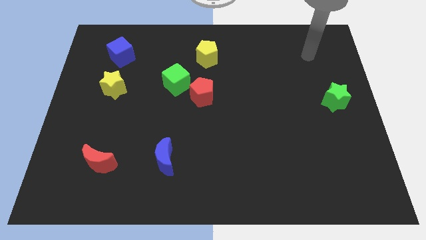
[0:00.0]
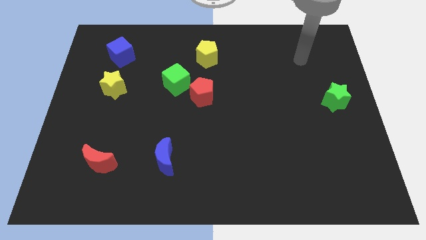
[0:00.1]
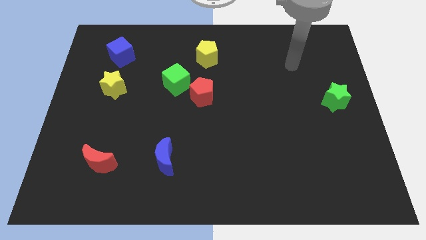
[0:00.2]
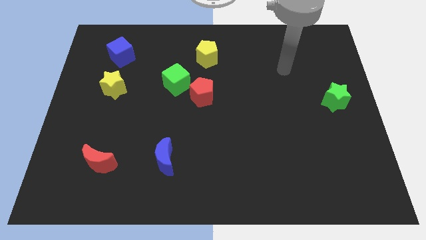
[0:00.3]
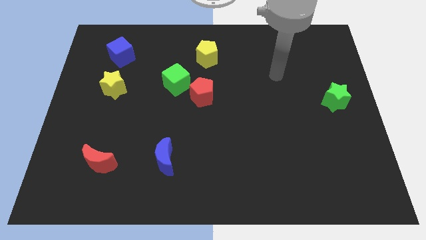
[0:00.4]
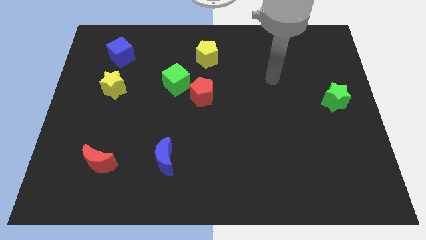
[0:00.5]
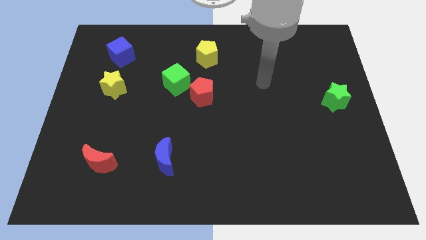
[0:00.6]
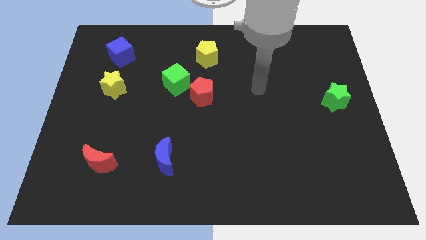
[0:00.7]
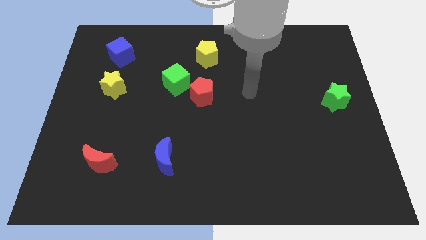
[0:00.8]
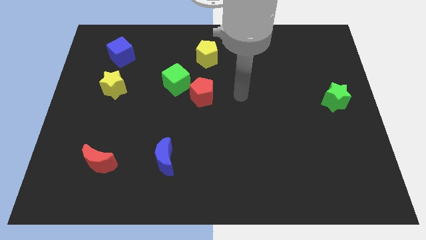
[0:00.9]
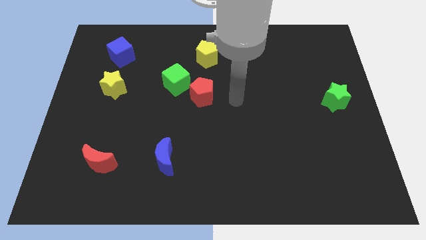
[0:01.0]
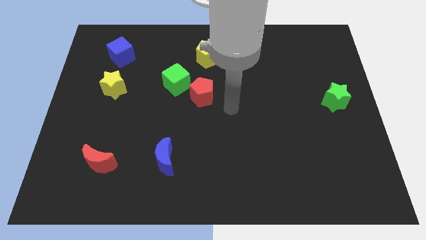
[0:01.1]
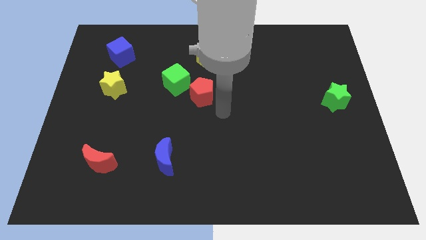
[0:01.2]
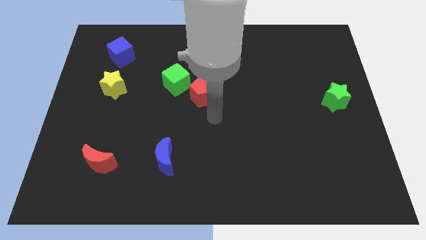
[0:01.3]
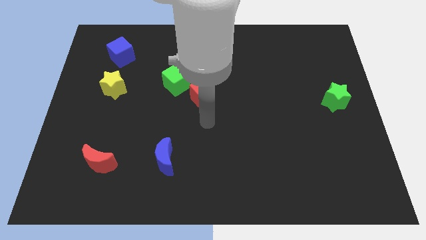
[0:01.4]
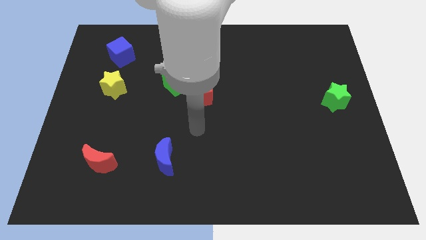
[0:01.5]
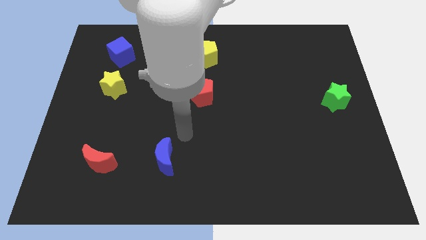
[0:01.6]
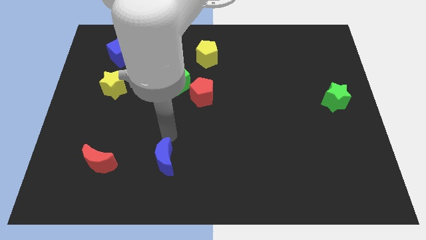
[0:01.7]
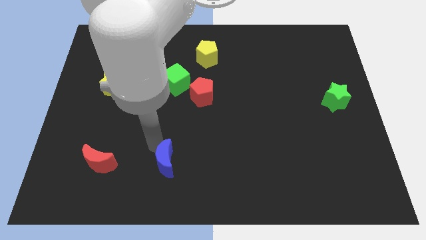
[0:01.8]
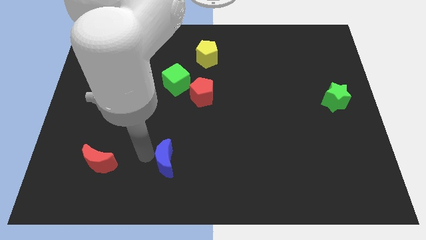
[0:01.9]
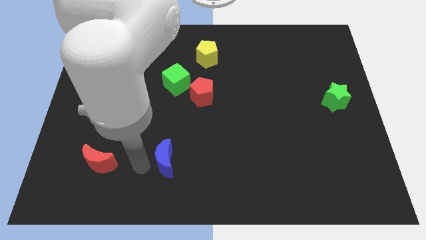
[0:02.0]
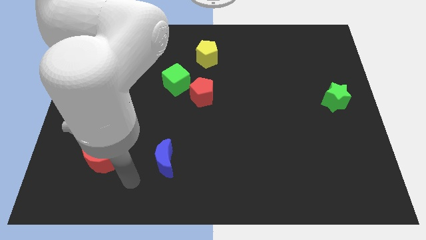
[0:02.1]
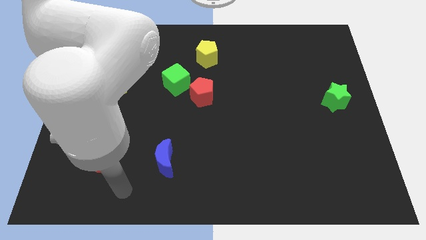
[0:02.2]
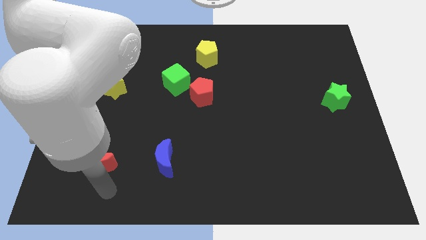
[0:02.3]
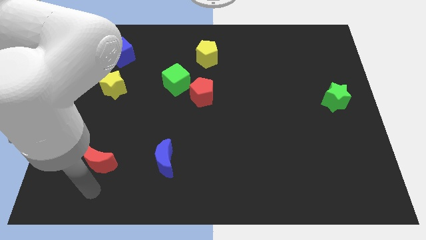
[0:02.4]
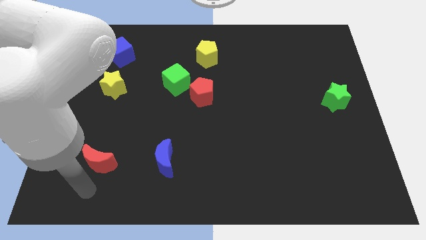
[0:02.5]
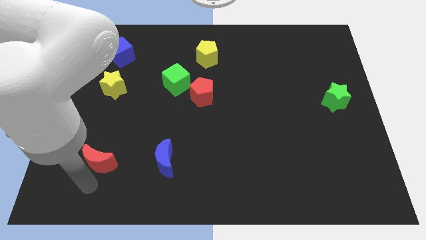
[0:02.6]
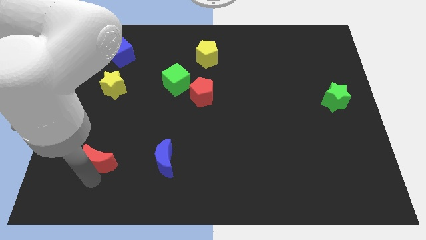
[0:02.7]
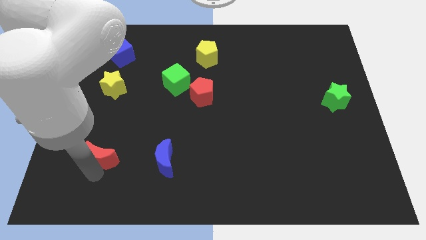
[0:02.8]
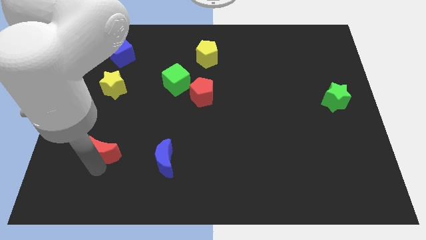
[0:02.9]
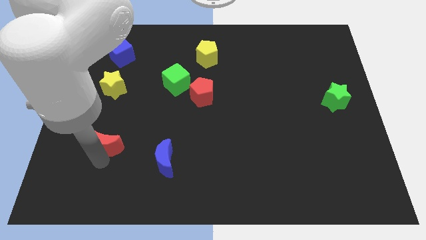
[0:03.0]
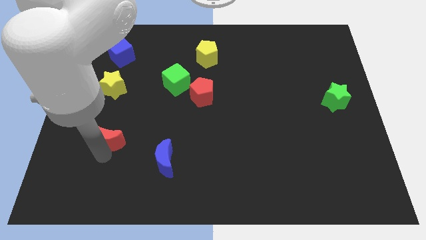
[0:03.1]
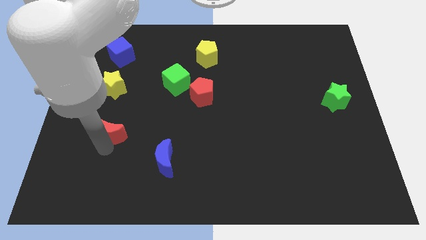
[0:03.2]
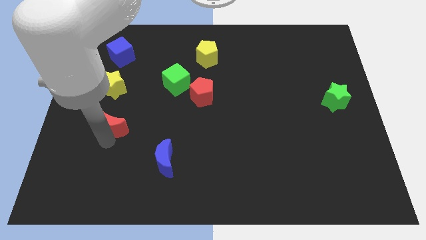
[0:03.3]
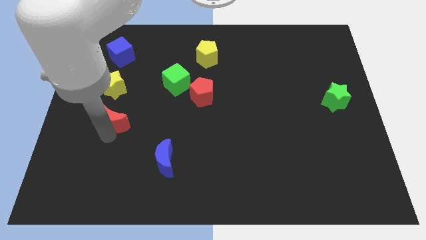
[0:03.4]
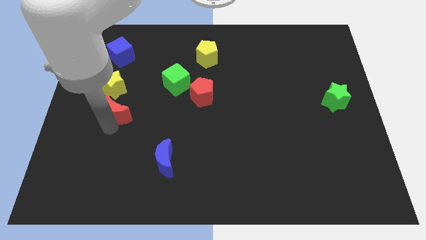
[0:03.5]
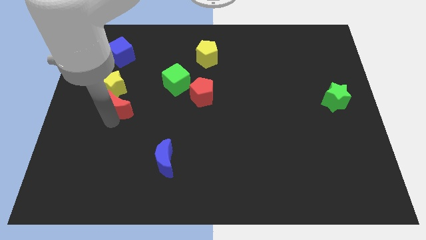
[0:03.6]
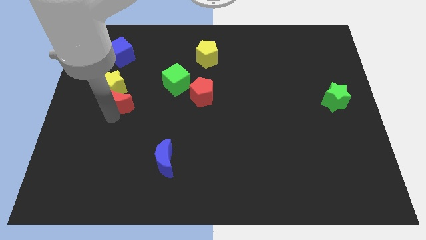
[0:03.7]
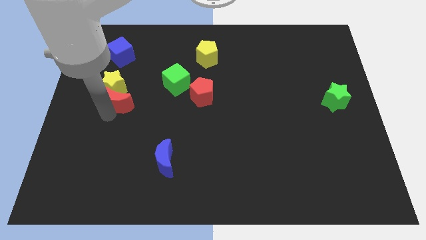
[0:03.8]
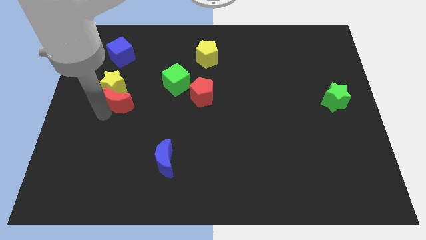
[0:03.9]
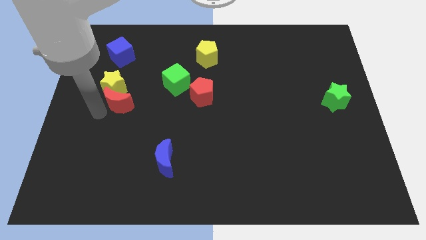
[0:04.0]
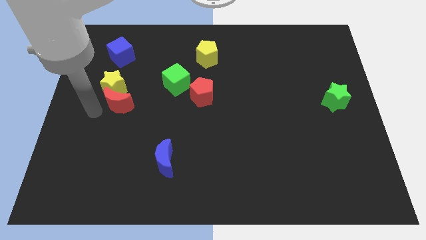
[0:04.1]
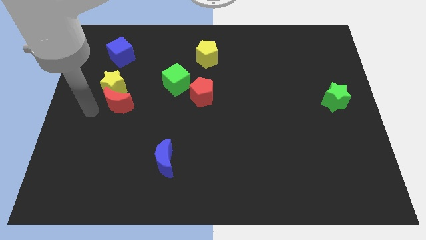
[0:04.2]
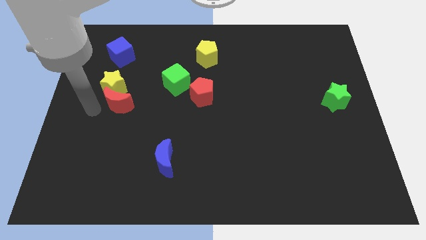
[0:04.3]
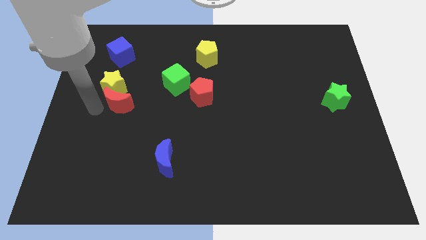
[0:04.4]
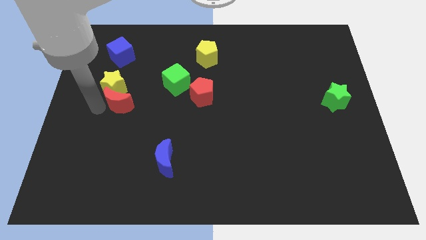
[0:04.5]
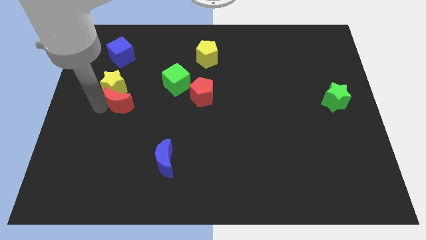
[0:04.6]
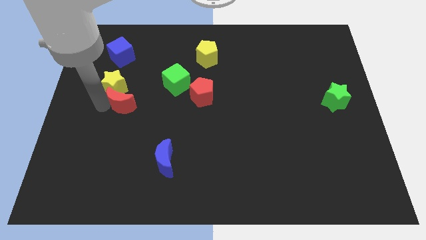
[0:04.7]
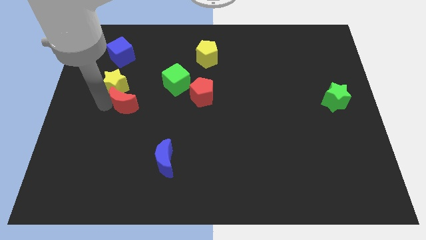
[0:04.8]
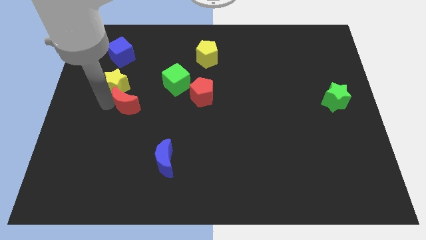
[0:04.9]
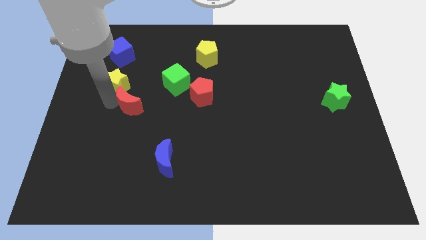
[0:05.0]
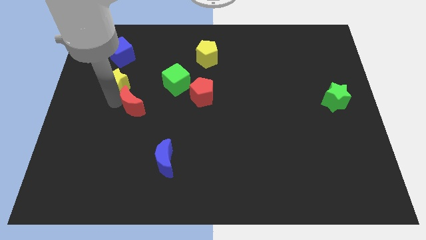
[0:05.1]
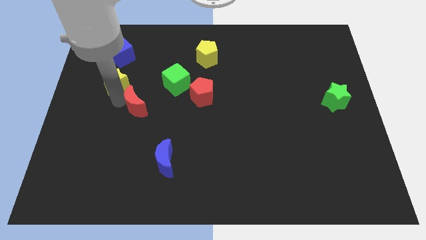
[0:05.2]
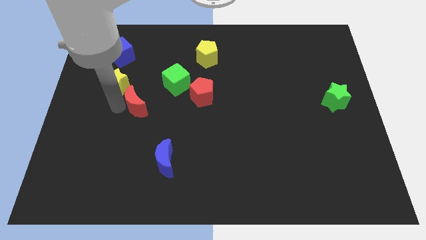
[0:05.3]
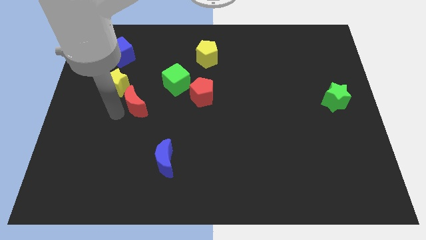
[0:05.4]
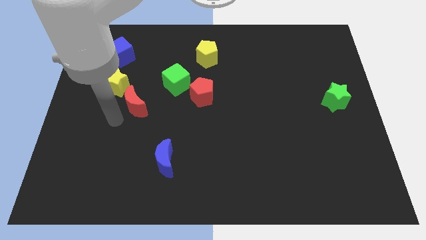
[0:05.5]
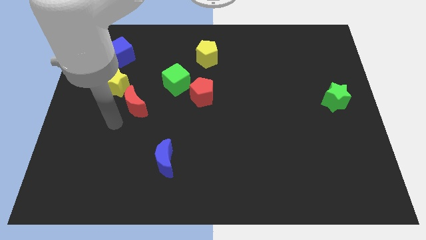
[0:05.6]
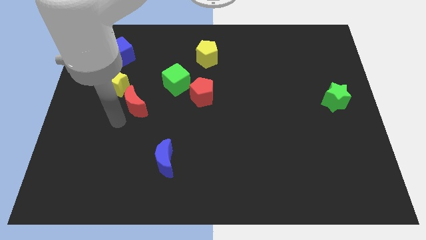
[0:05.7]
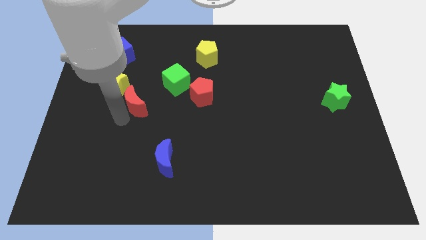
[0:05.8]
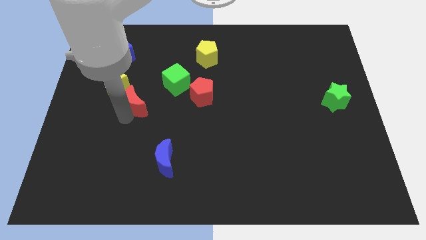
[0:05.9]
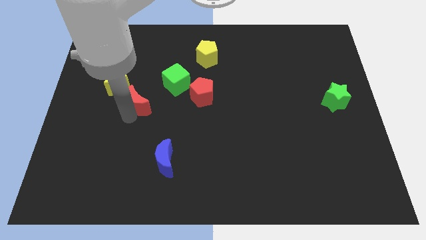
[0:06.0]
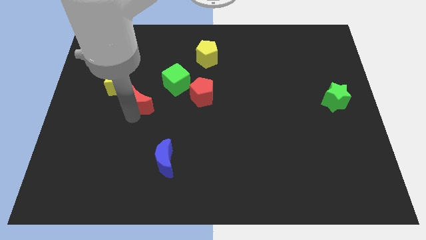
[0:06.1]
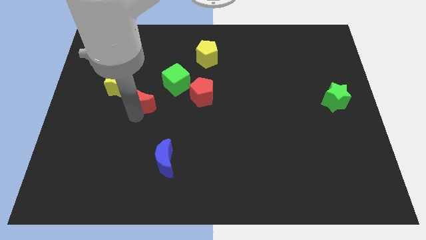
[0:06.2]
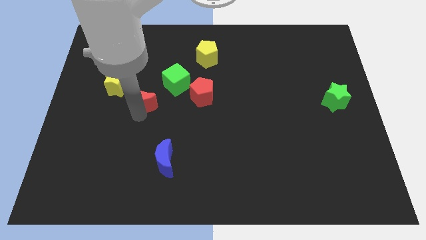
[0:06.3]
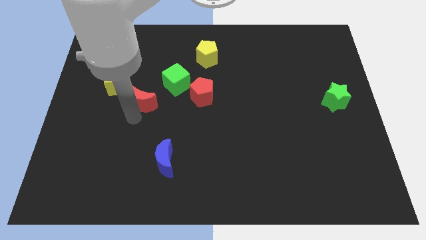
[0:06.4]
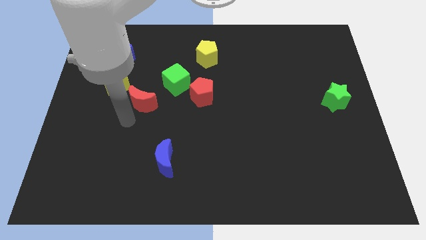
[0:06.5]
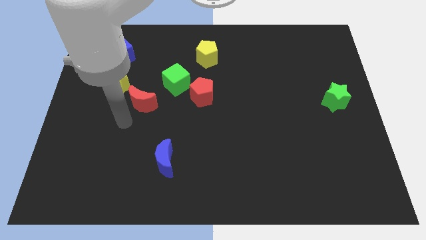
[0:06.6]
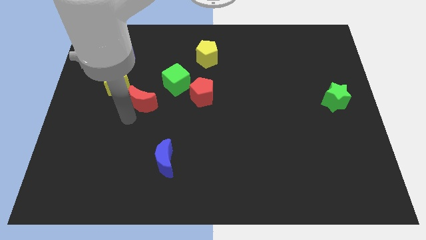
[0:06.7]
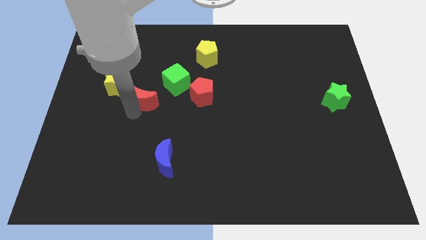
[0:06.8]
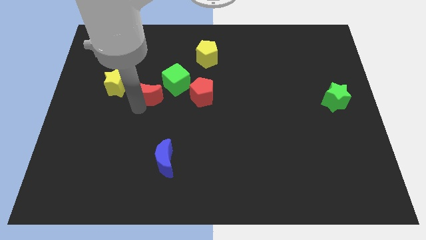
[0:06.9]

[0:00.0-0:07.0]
move the red moon to the right side of the yellow star

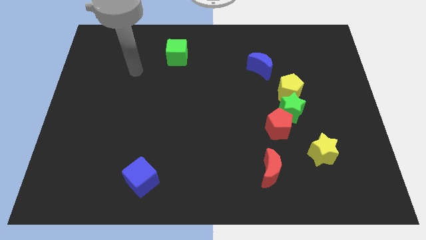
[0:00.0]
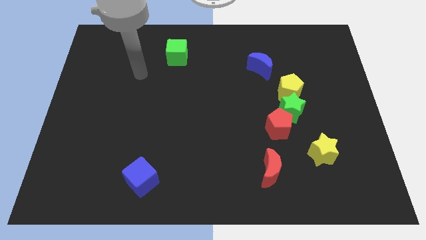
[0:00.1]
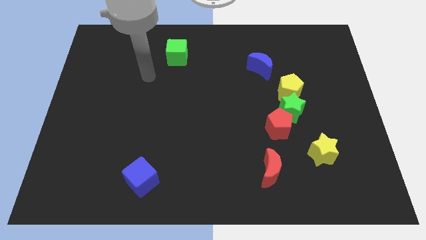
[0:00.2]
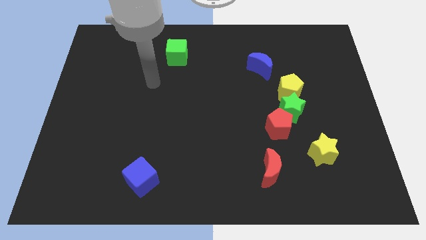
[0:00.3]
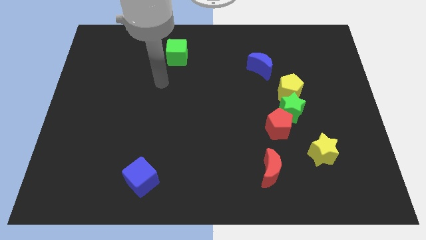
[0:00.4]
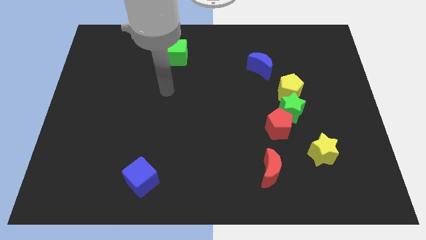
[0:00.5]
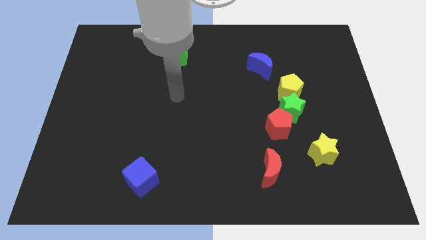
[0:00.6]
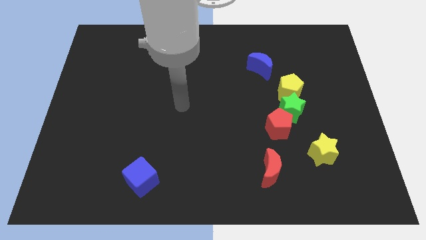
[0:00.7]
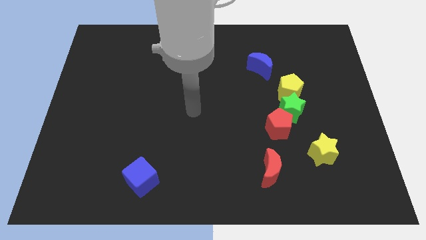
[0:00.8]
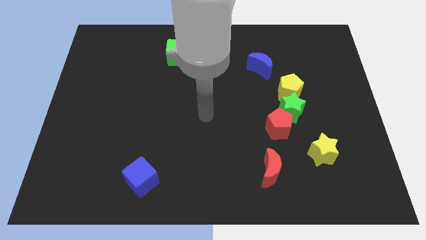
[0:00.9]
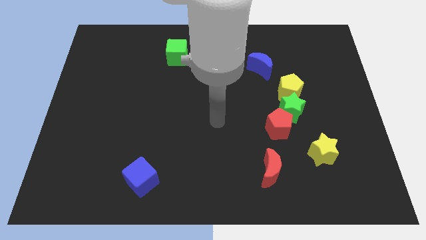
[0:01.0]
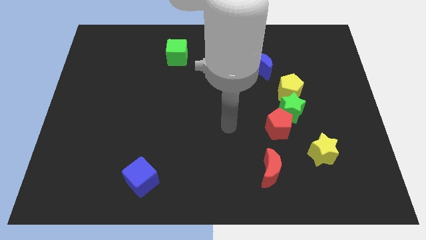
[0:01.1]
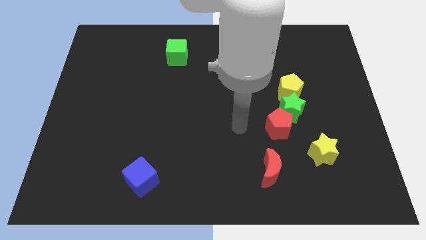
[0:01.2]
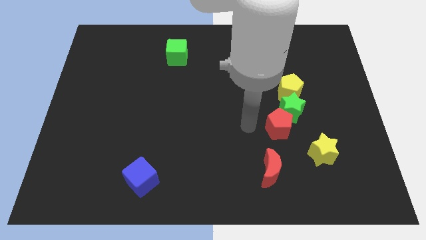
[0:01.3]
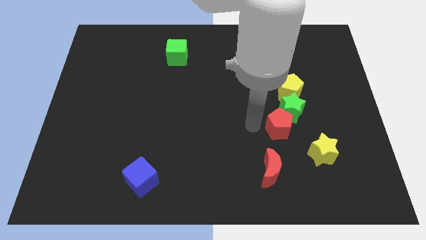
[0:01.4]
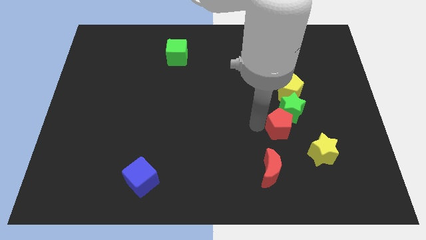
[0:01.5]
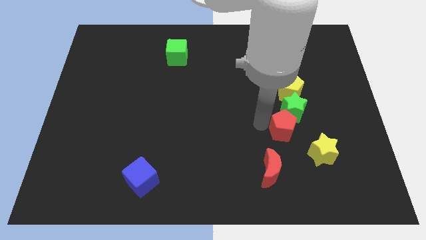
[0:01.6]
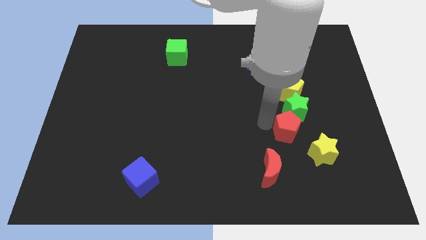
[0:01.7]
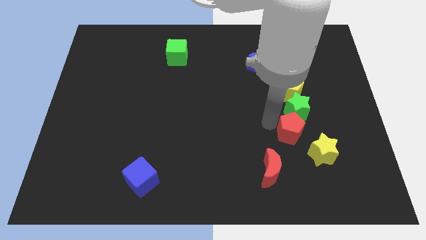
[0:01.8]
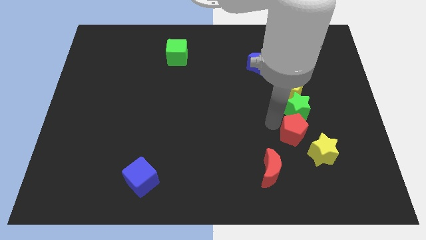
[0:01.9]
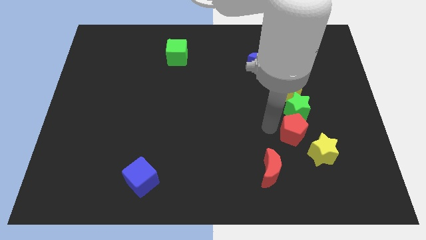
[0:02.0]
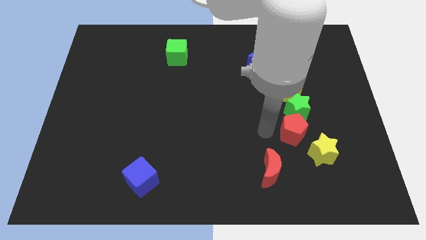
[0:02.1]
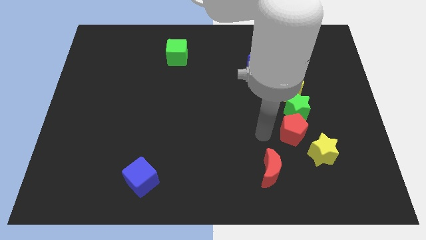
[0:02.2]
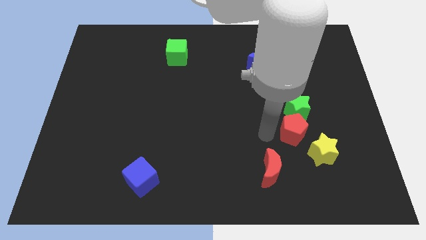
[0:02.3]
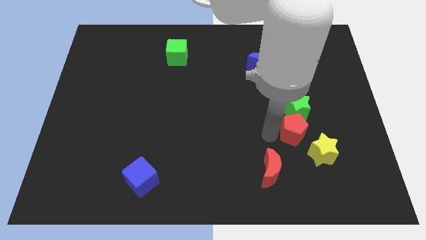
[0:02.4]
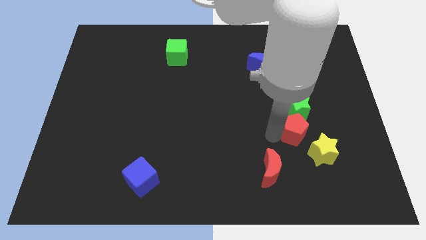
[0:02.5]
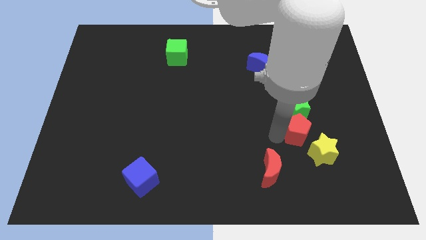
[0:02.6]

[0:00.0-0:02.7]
put the red pentagon diagonally down and to the right of the green star
